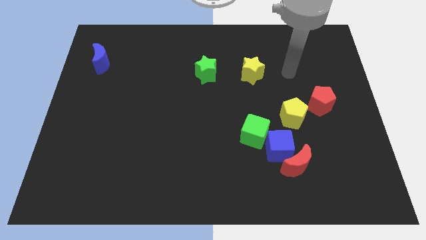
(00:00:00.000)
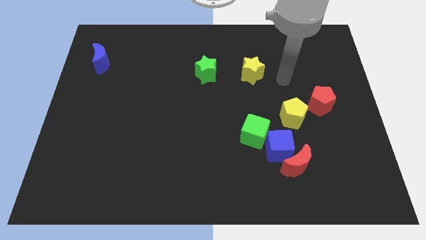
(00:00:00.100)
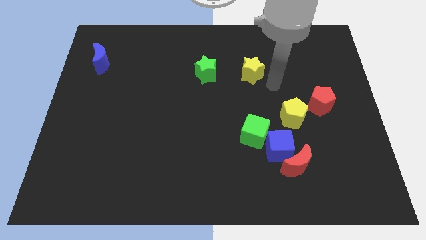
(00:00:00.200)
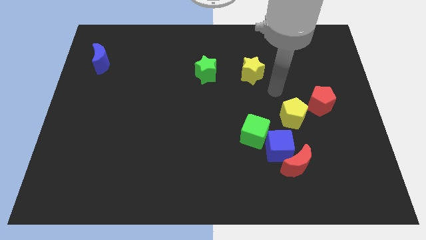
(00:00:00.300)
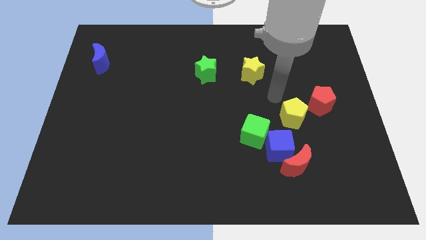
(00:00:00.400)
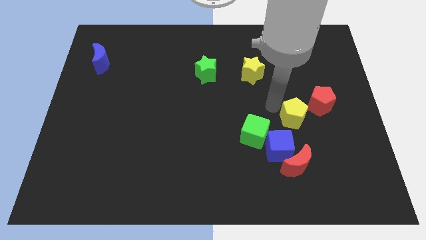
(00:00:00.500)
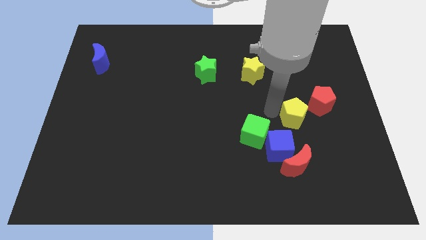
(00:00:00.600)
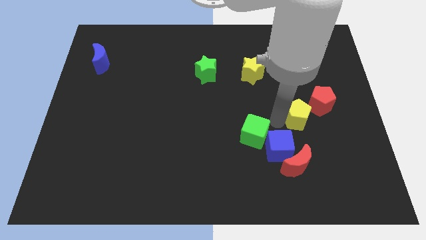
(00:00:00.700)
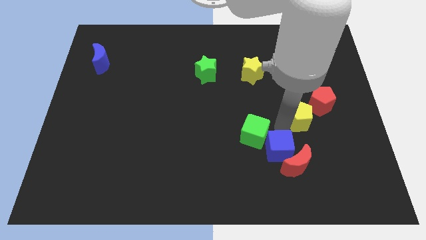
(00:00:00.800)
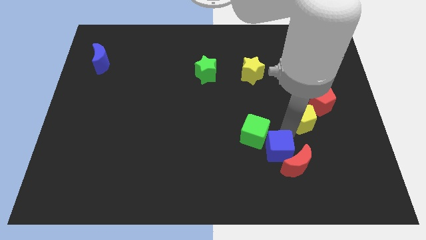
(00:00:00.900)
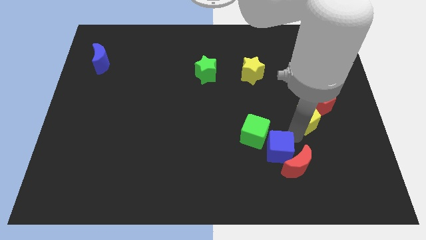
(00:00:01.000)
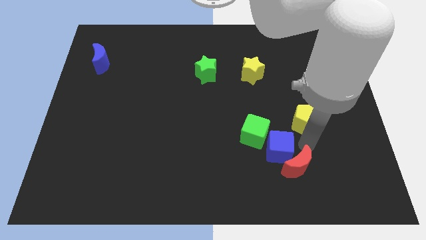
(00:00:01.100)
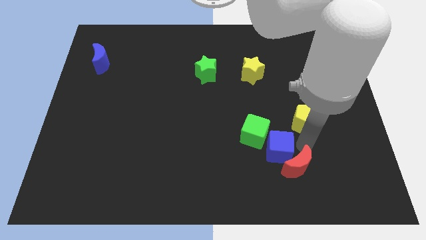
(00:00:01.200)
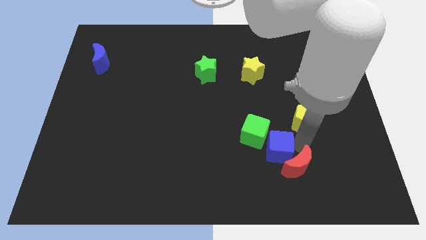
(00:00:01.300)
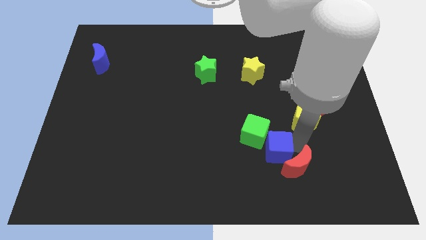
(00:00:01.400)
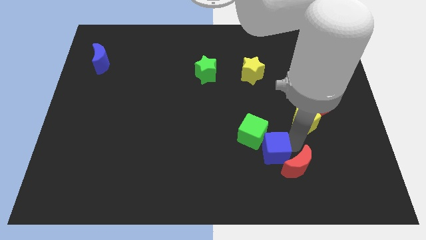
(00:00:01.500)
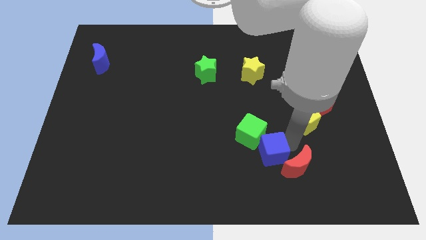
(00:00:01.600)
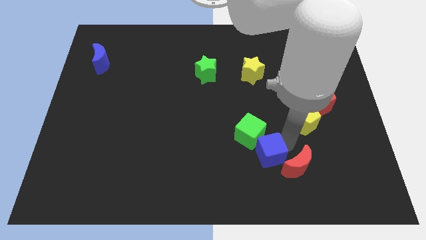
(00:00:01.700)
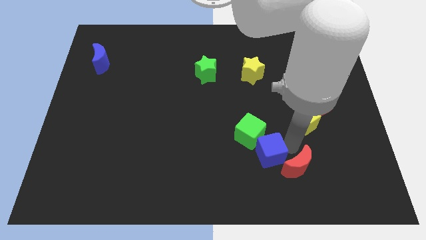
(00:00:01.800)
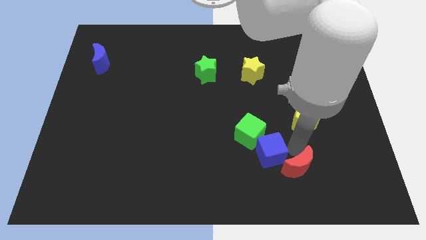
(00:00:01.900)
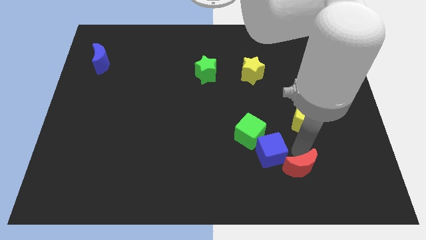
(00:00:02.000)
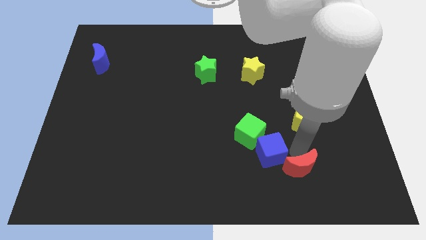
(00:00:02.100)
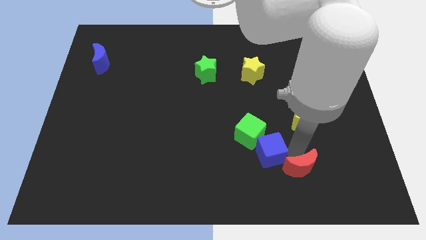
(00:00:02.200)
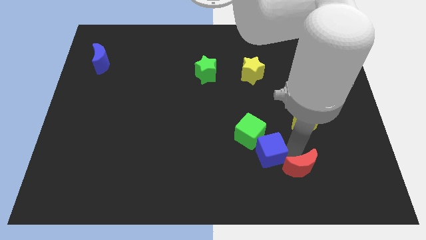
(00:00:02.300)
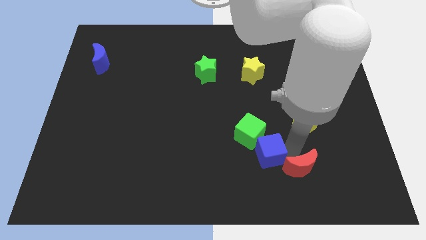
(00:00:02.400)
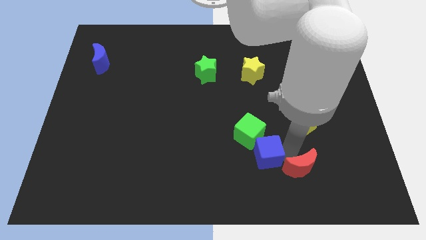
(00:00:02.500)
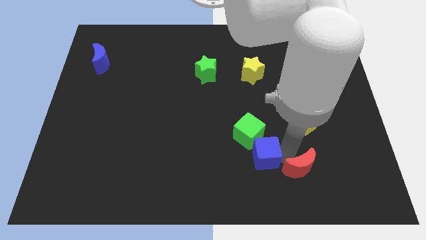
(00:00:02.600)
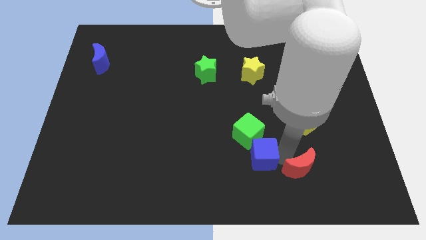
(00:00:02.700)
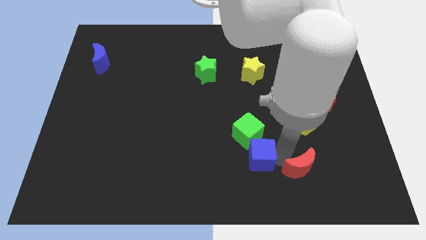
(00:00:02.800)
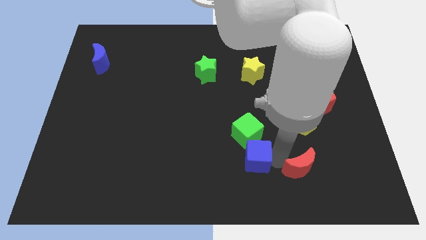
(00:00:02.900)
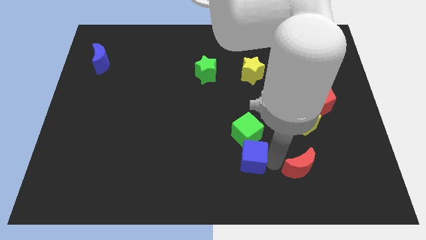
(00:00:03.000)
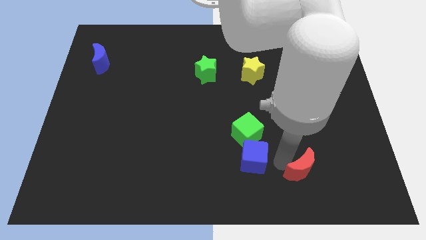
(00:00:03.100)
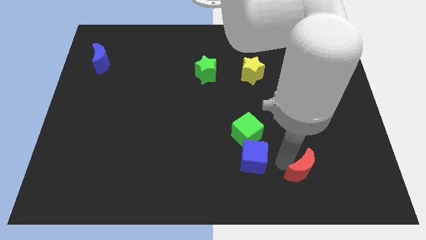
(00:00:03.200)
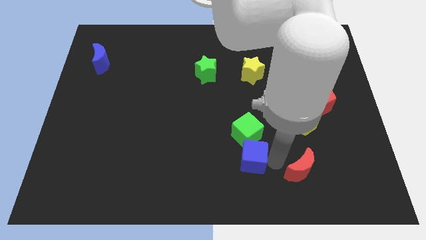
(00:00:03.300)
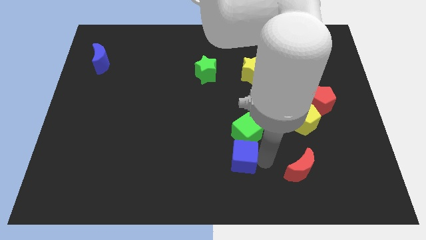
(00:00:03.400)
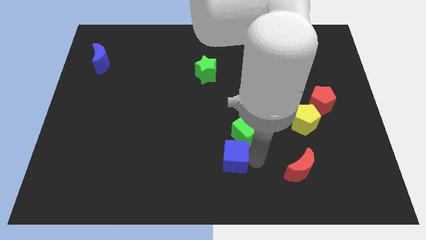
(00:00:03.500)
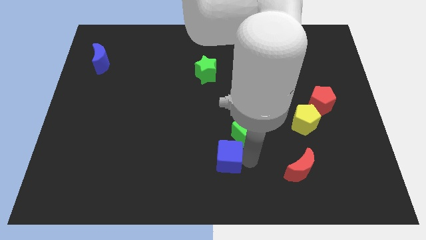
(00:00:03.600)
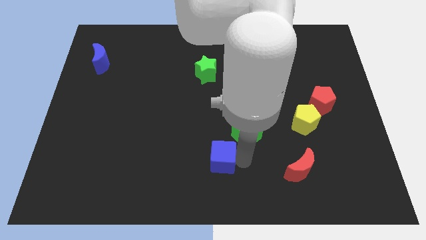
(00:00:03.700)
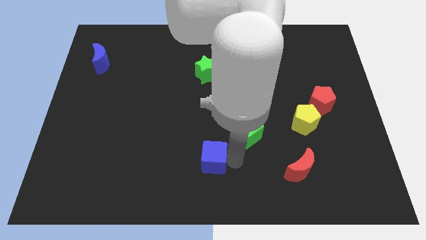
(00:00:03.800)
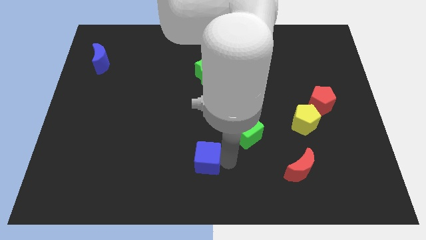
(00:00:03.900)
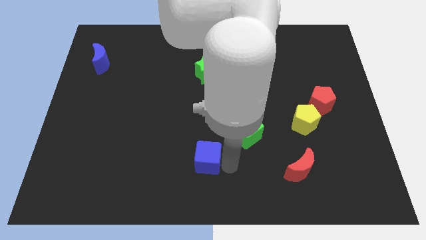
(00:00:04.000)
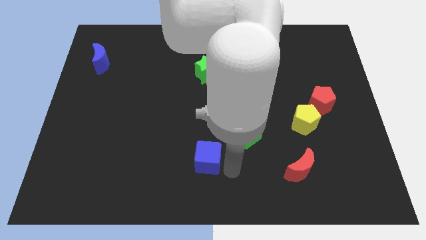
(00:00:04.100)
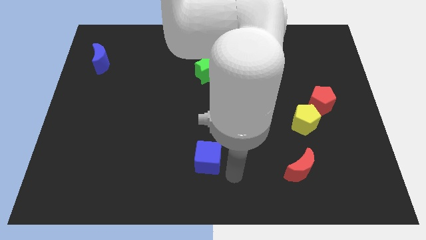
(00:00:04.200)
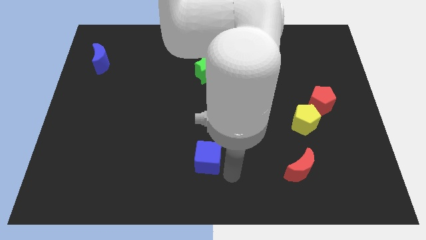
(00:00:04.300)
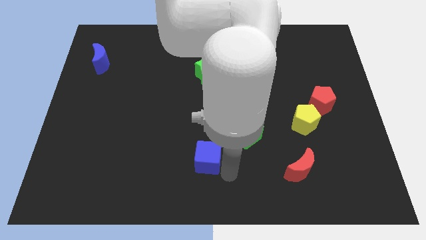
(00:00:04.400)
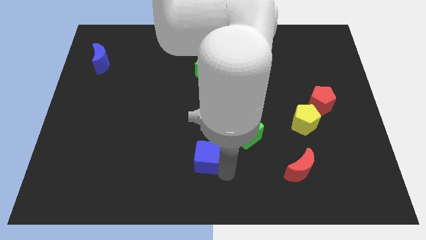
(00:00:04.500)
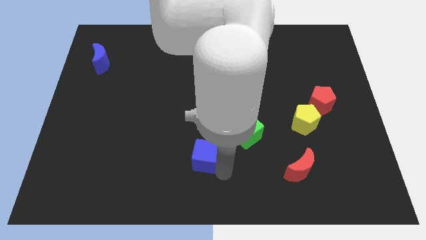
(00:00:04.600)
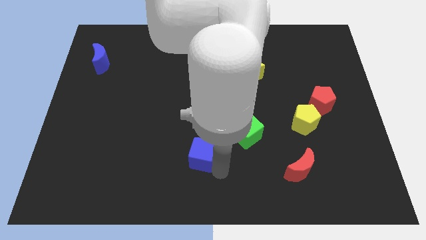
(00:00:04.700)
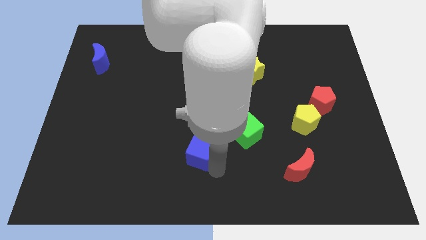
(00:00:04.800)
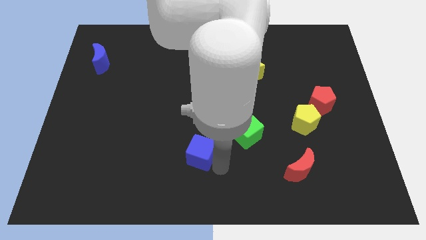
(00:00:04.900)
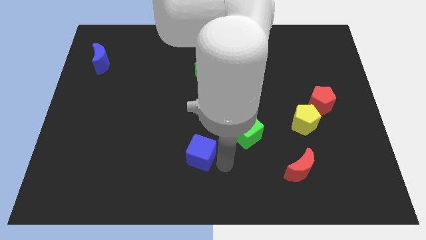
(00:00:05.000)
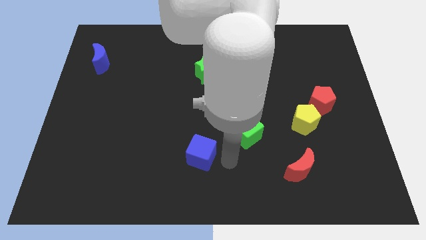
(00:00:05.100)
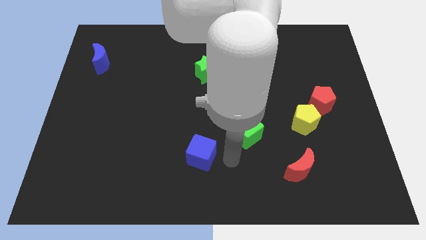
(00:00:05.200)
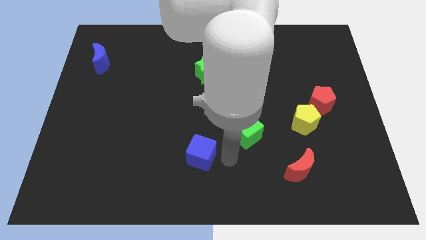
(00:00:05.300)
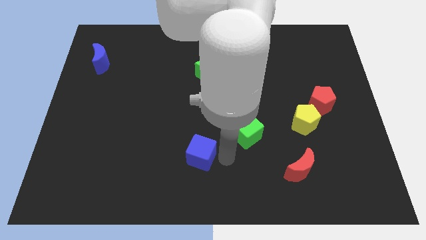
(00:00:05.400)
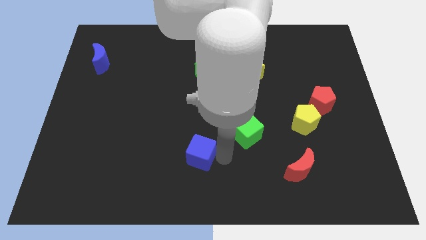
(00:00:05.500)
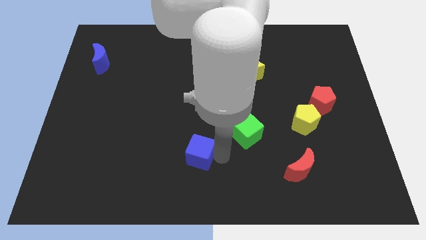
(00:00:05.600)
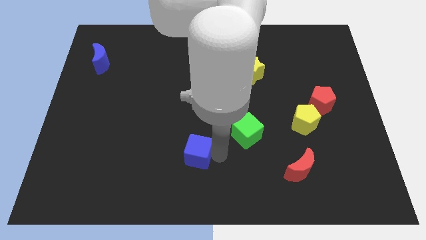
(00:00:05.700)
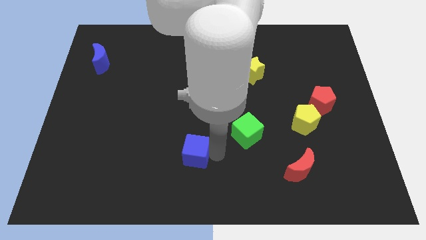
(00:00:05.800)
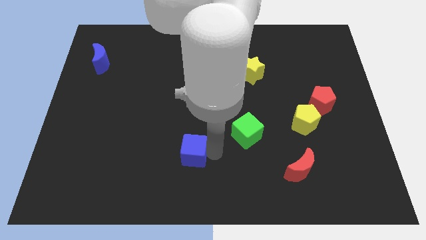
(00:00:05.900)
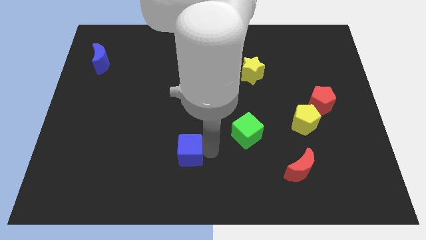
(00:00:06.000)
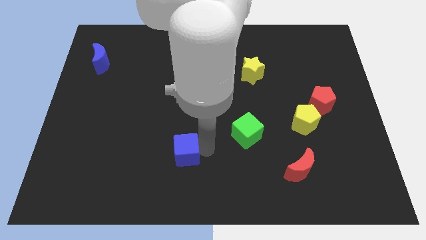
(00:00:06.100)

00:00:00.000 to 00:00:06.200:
slide the blue cube left

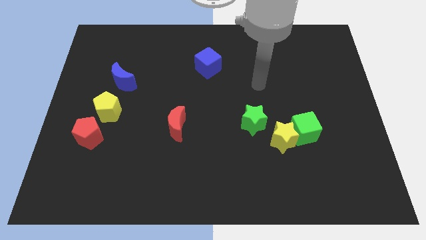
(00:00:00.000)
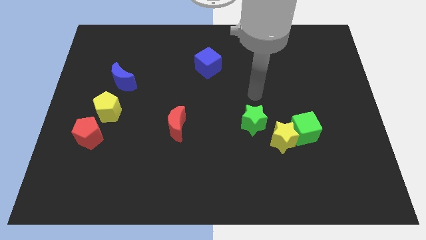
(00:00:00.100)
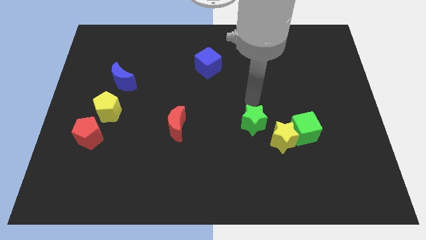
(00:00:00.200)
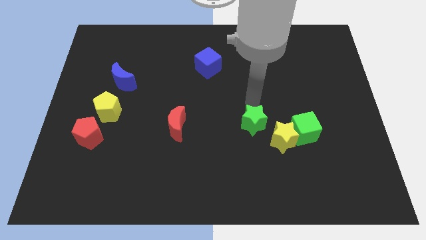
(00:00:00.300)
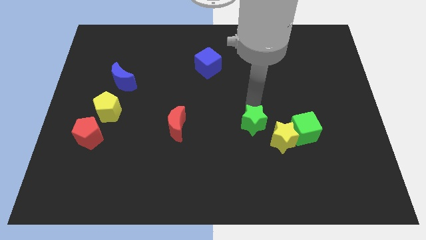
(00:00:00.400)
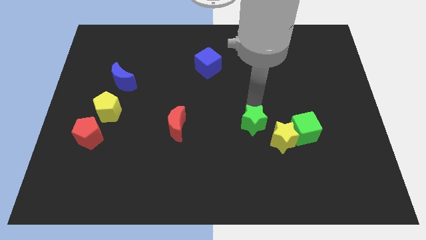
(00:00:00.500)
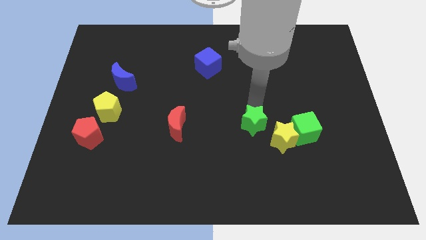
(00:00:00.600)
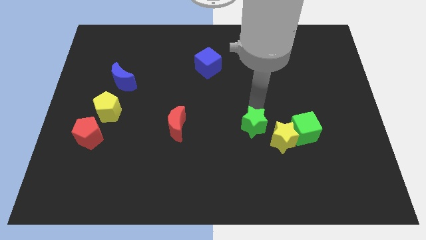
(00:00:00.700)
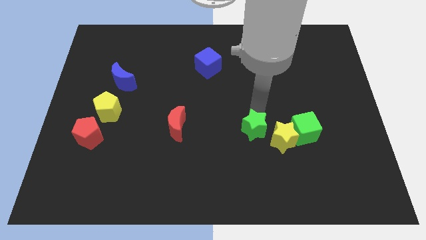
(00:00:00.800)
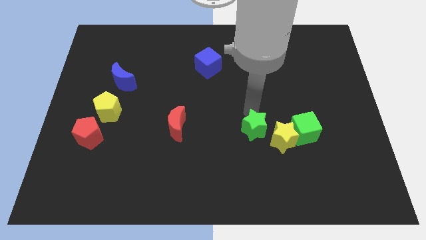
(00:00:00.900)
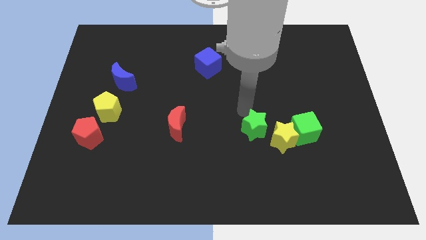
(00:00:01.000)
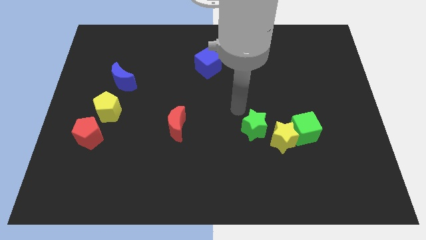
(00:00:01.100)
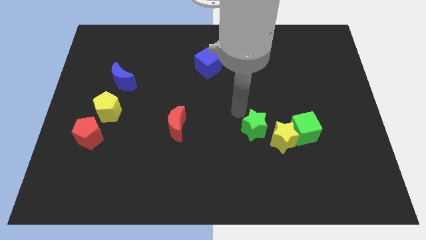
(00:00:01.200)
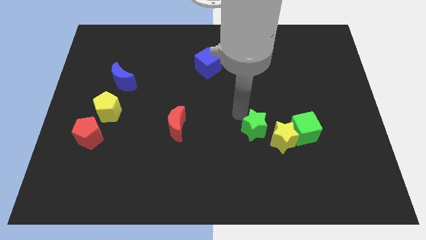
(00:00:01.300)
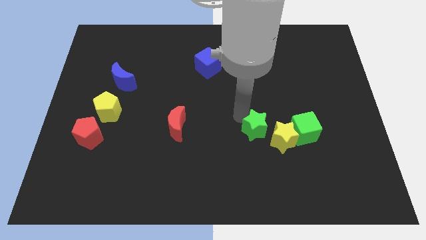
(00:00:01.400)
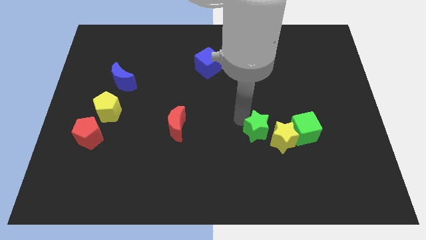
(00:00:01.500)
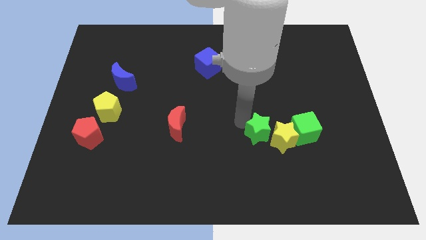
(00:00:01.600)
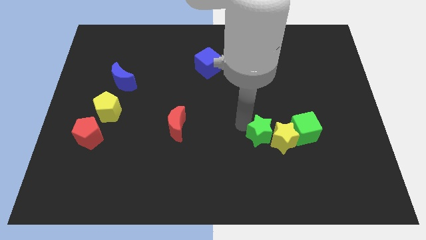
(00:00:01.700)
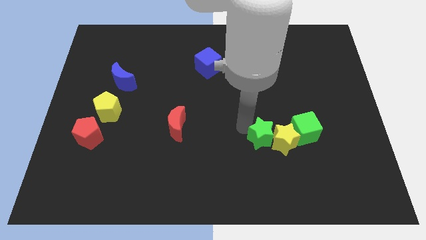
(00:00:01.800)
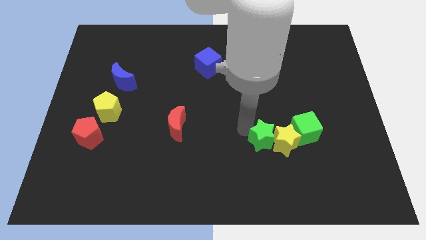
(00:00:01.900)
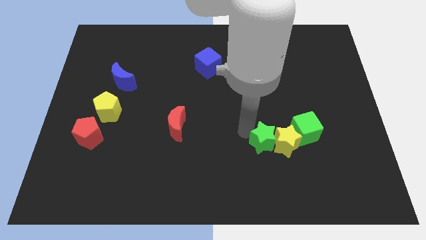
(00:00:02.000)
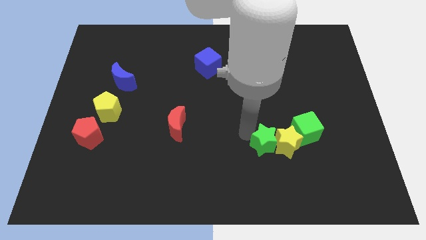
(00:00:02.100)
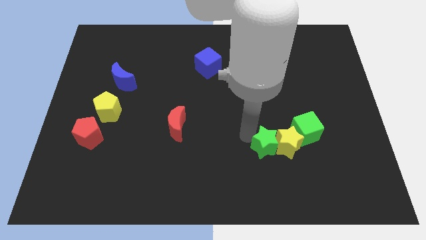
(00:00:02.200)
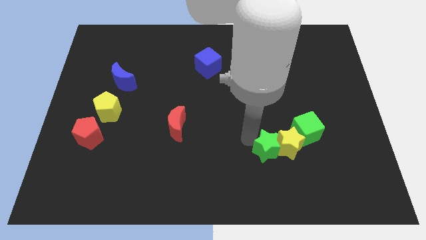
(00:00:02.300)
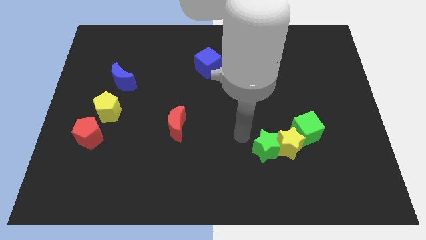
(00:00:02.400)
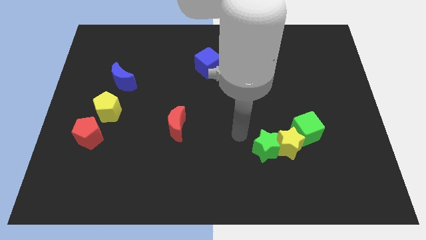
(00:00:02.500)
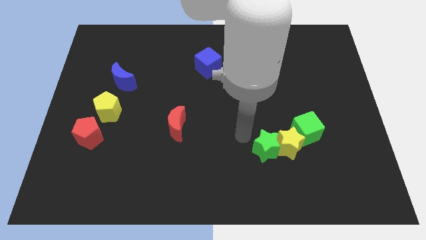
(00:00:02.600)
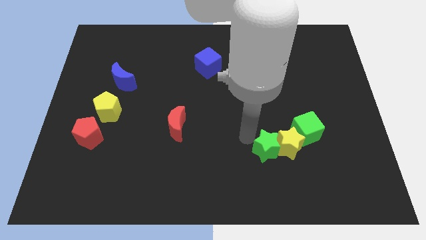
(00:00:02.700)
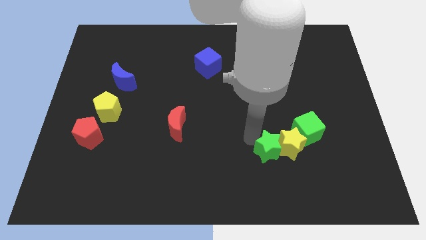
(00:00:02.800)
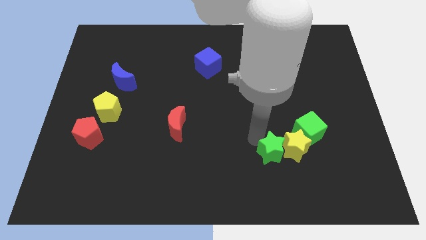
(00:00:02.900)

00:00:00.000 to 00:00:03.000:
slightly slide the green star downwards and to the right diagonally
